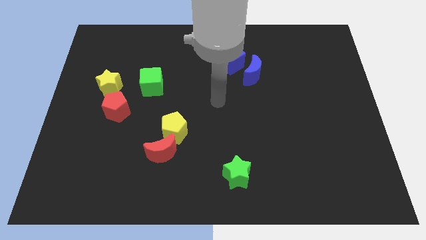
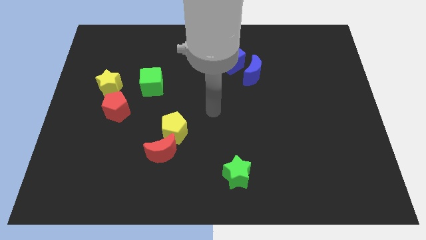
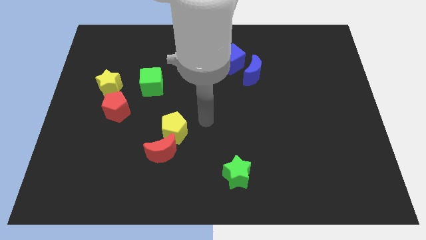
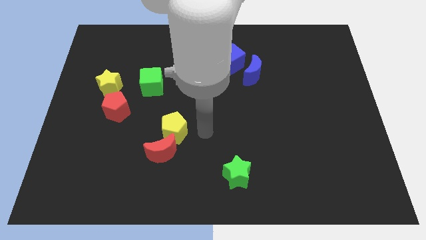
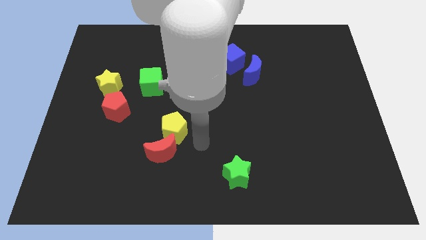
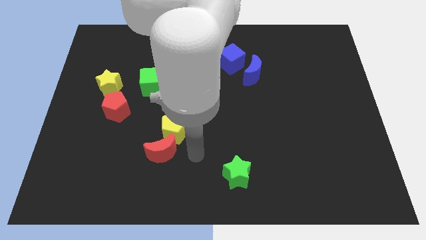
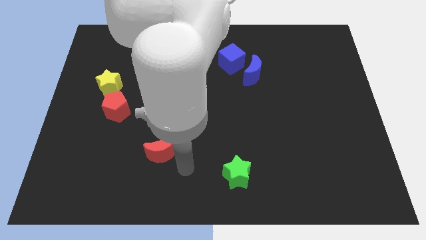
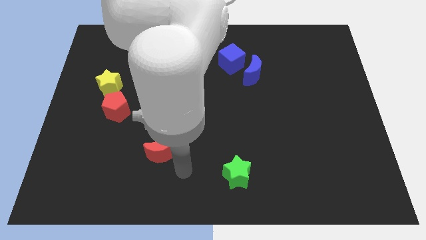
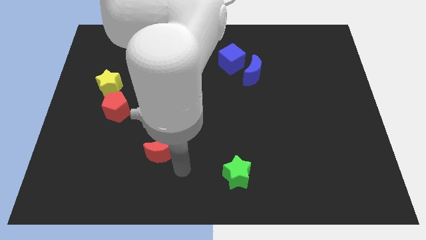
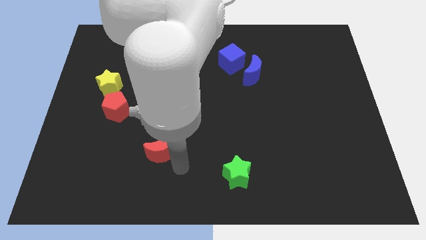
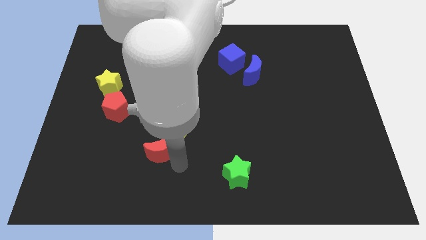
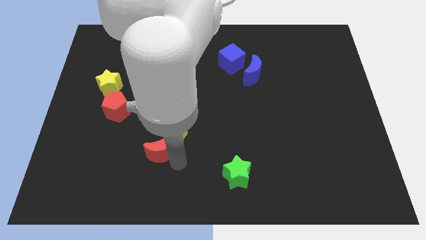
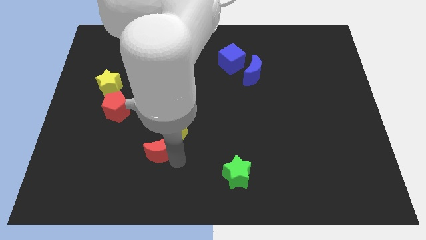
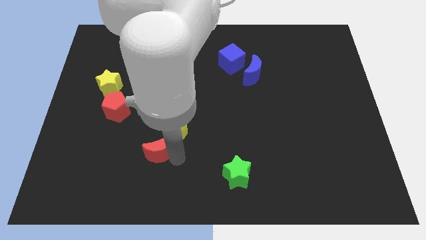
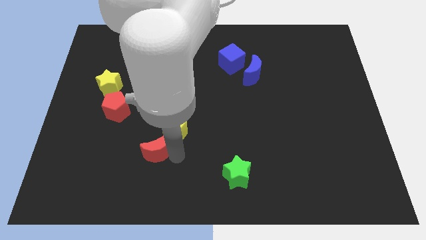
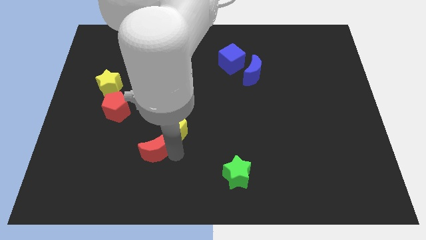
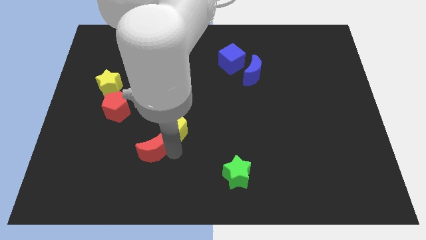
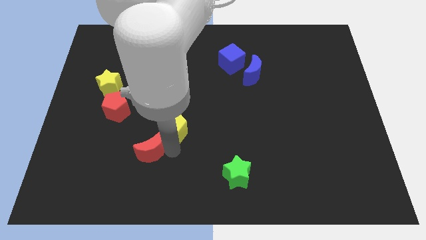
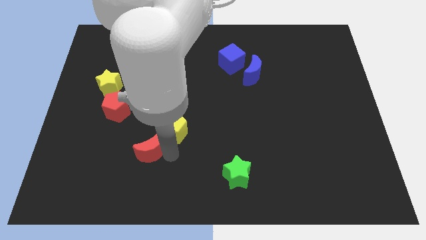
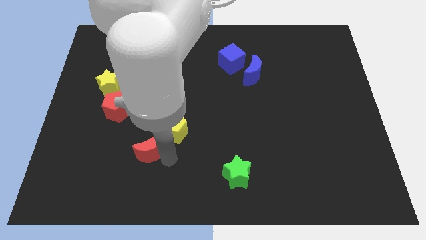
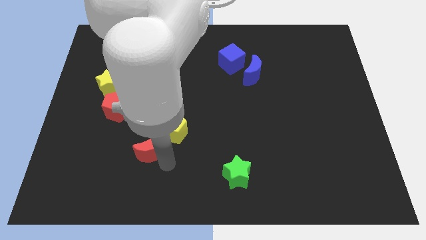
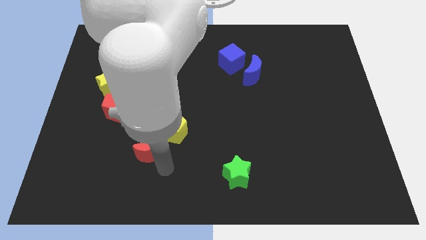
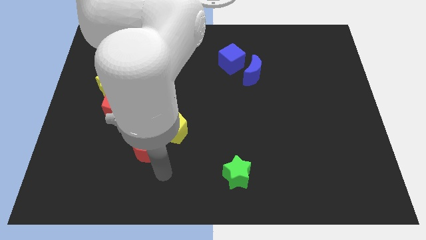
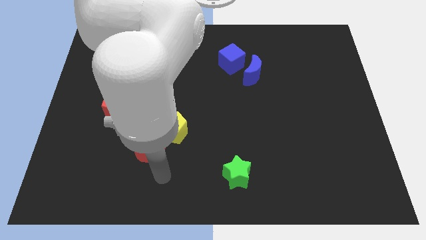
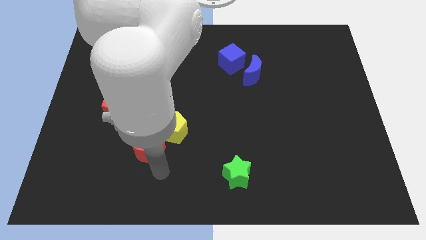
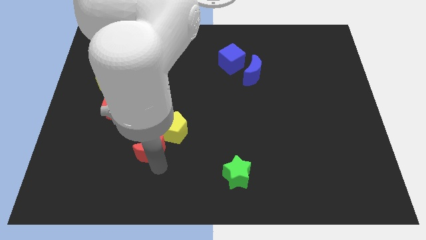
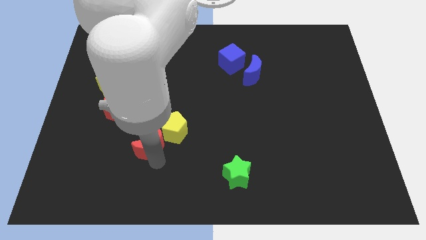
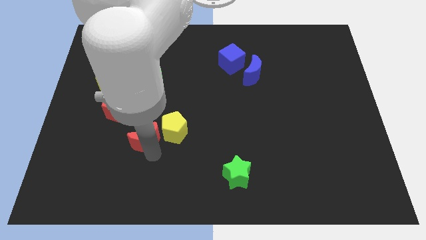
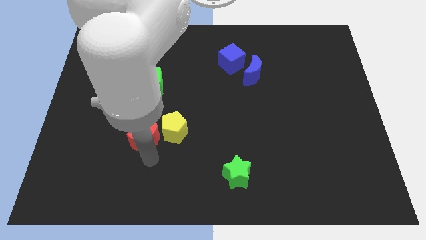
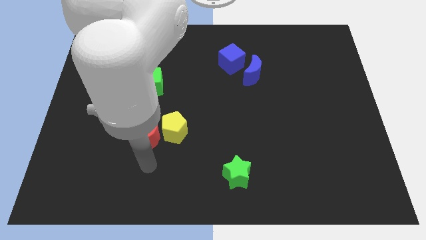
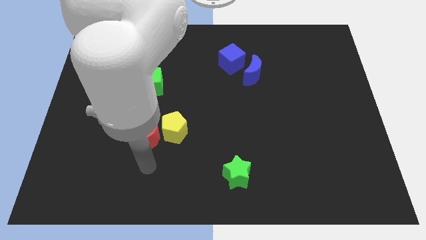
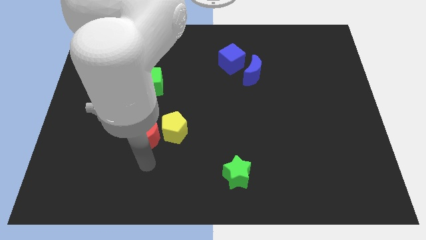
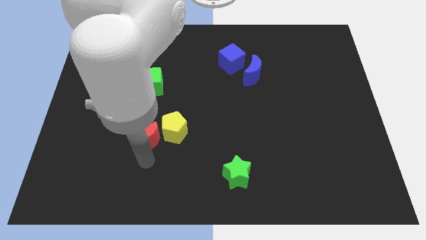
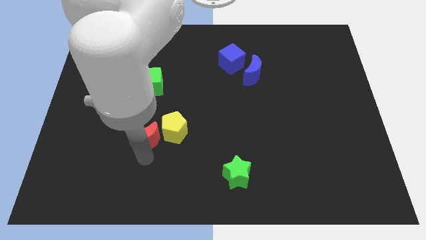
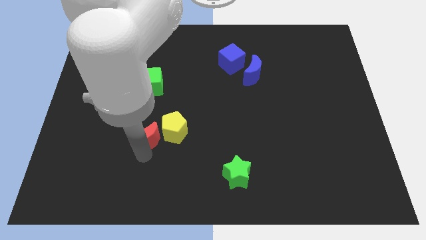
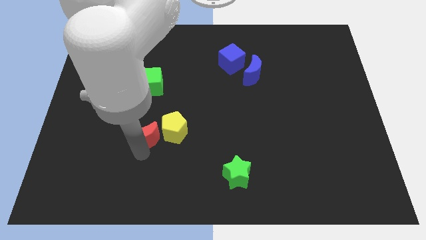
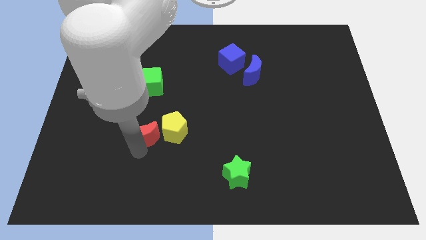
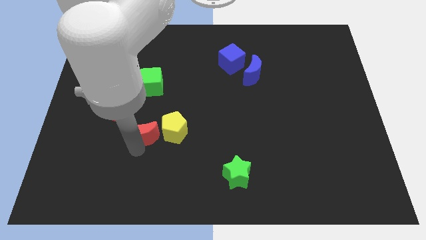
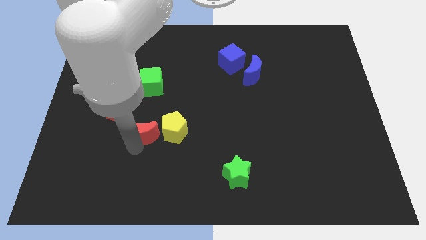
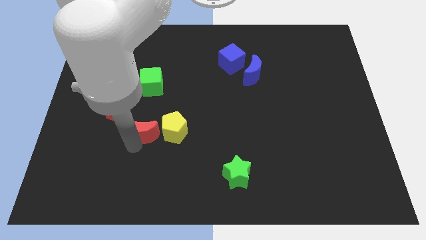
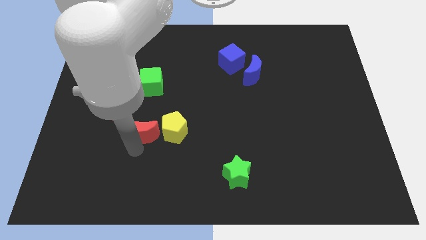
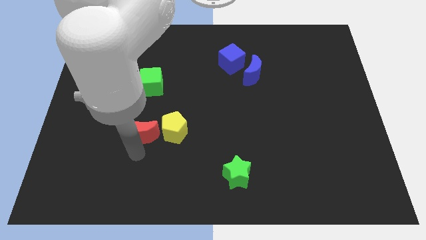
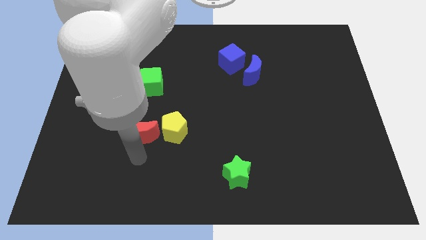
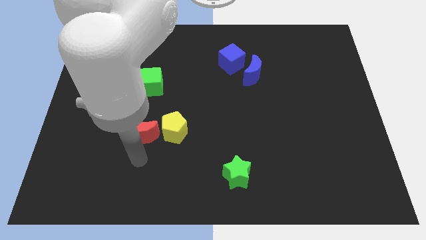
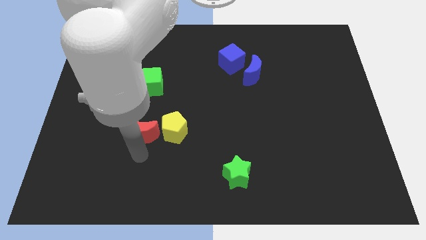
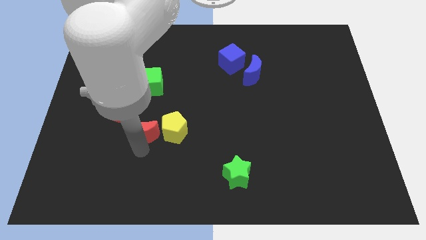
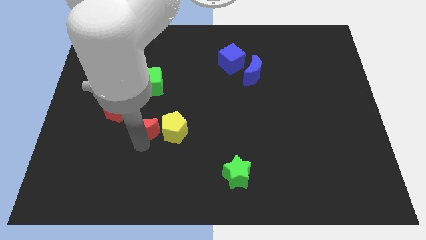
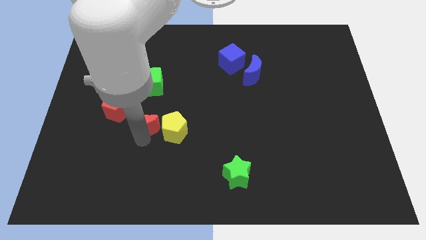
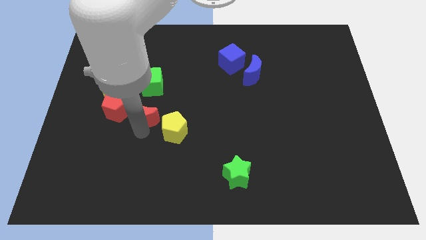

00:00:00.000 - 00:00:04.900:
slide the red moon up a little bit

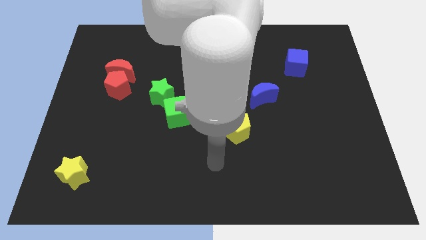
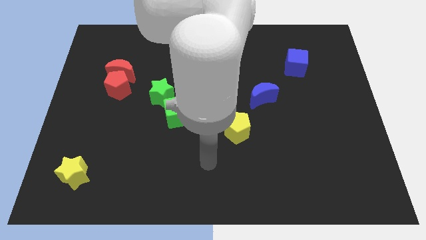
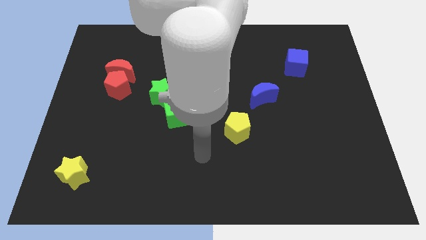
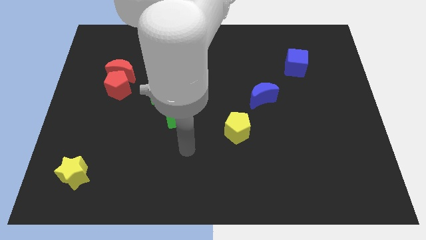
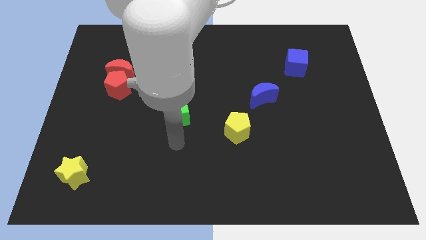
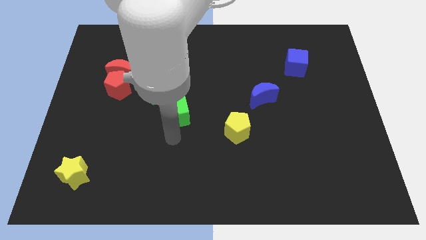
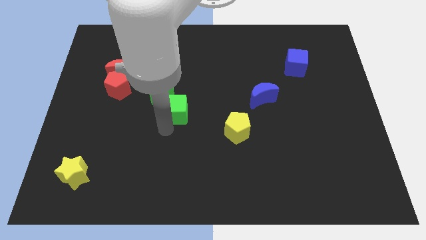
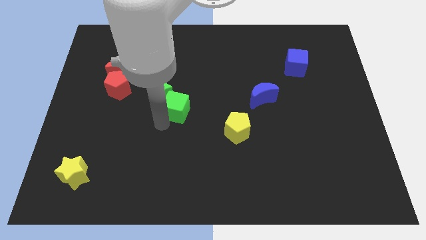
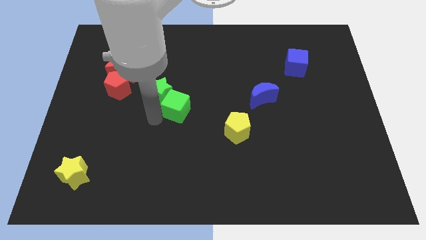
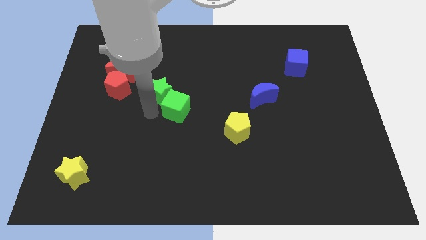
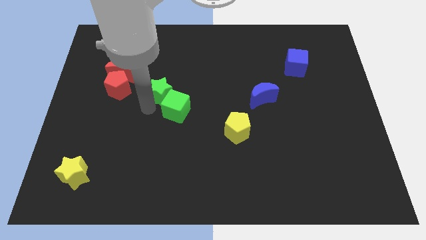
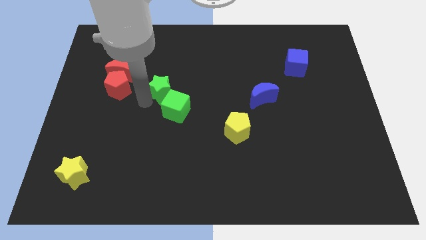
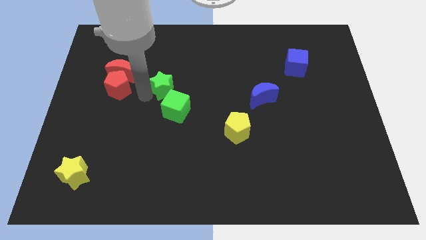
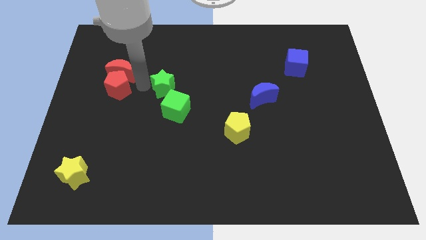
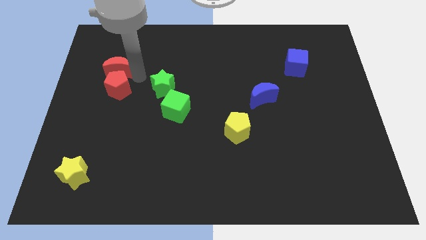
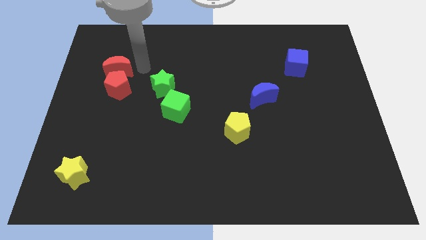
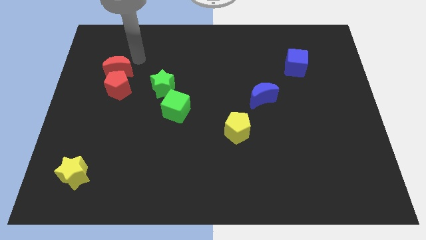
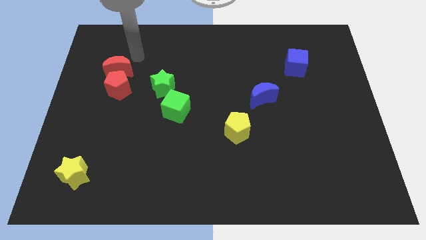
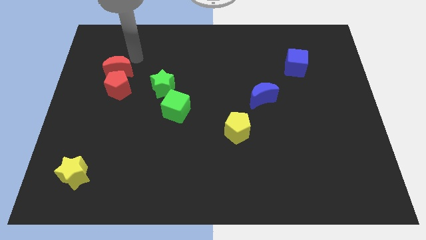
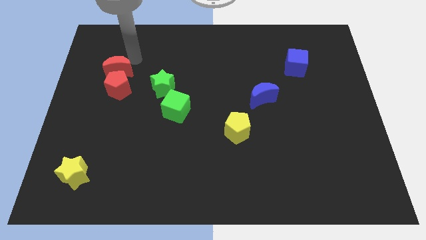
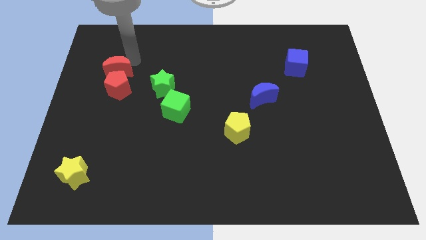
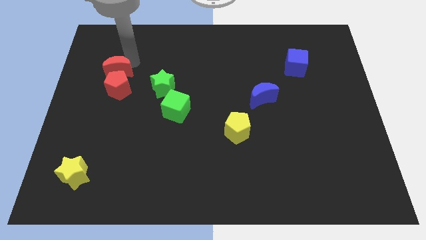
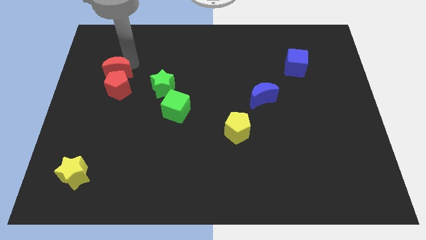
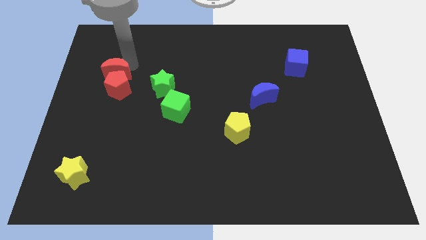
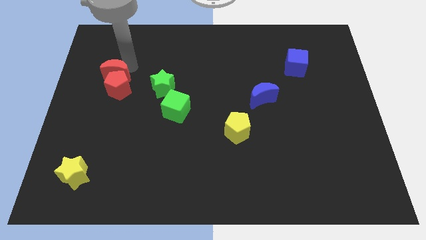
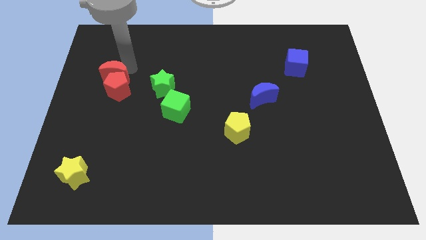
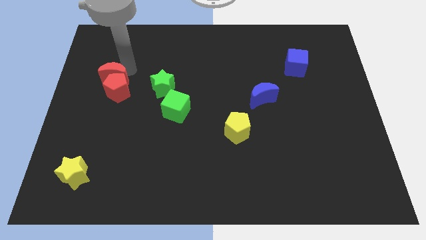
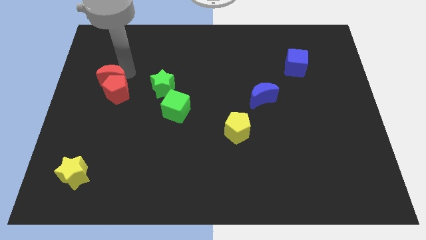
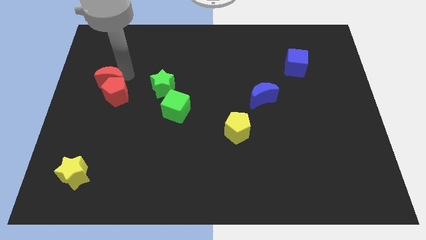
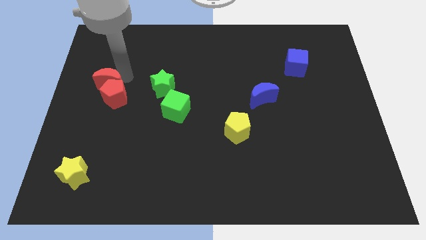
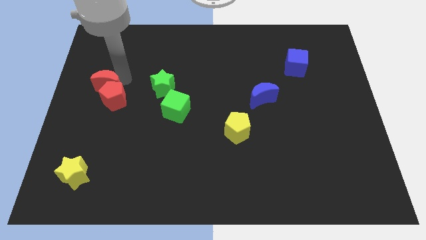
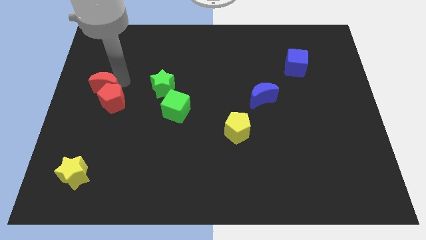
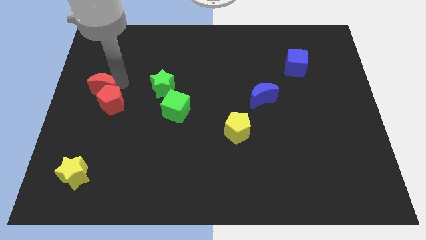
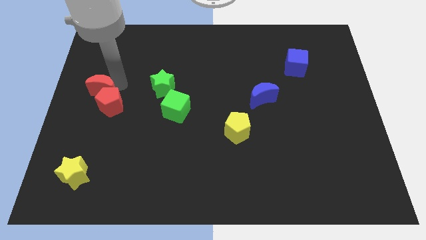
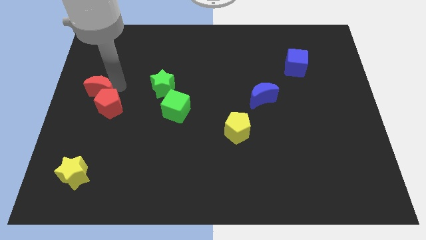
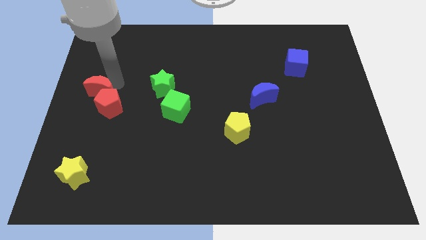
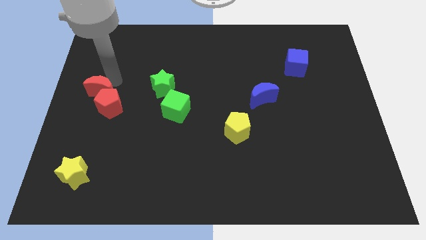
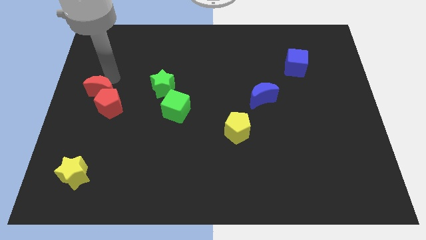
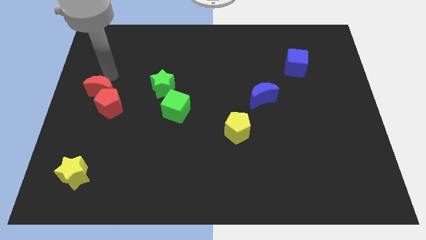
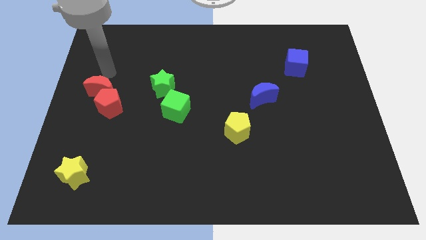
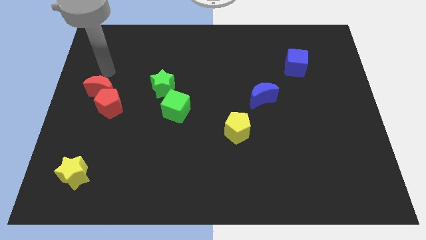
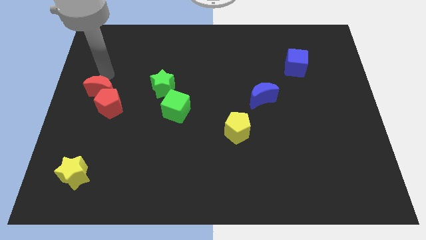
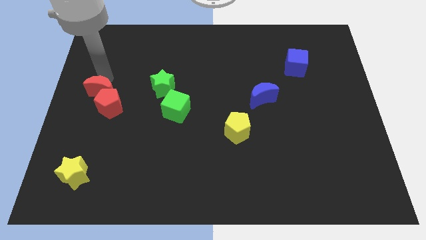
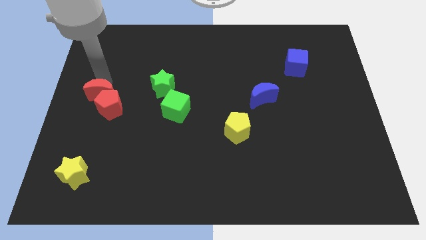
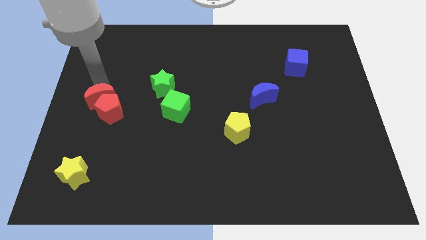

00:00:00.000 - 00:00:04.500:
slightly slide the red moon down
